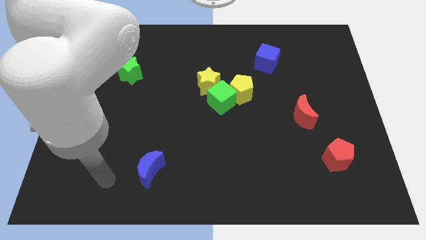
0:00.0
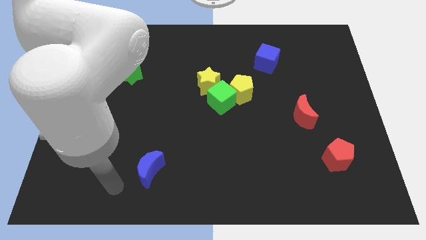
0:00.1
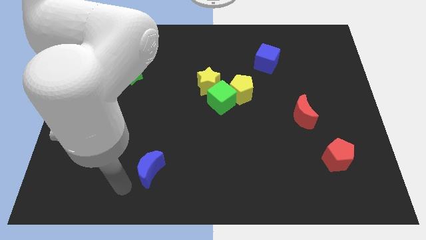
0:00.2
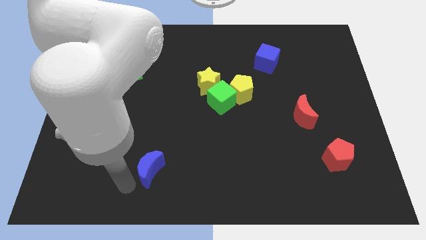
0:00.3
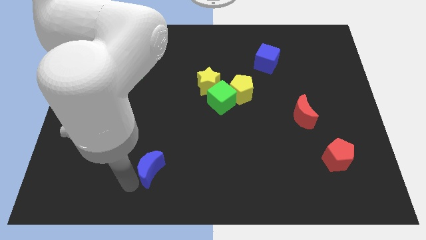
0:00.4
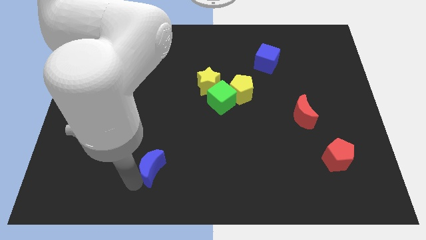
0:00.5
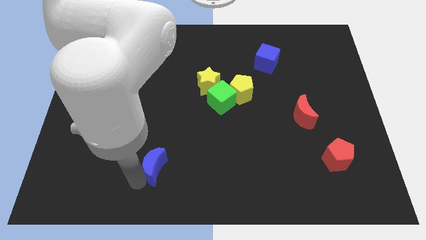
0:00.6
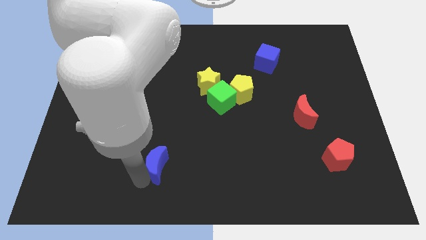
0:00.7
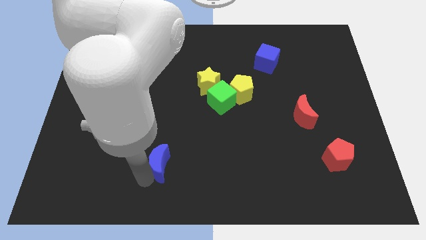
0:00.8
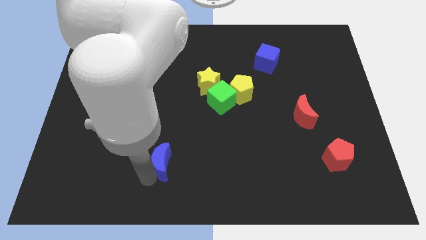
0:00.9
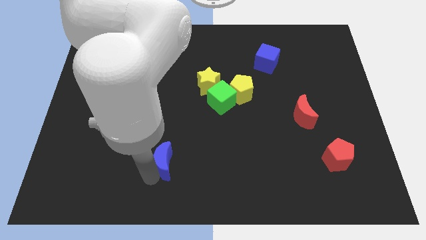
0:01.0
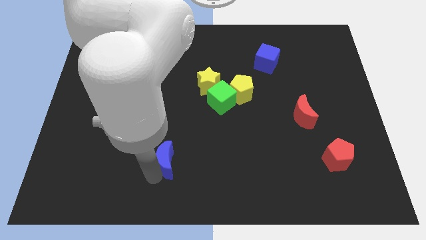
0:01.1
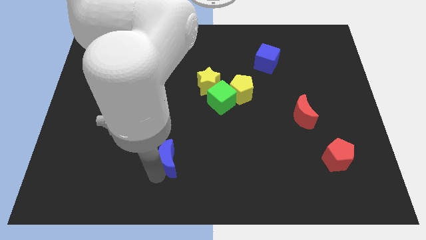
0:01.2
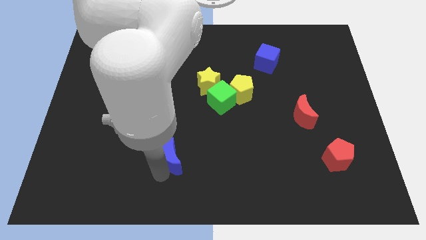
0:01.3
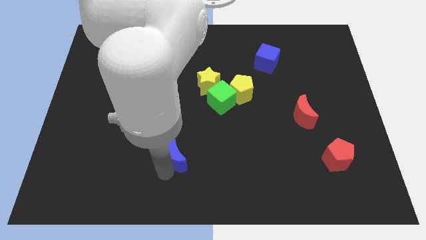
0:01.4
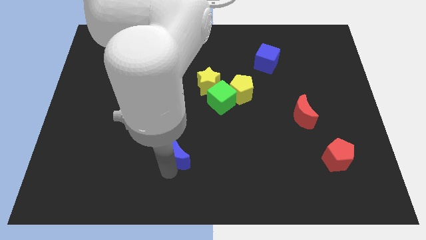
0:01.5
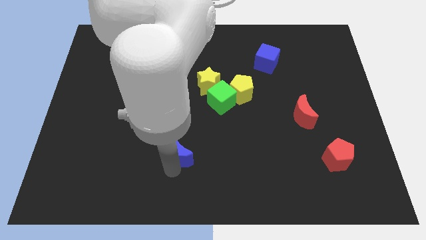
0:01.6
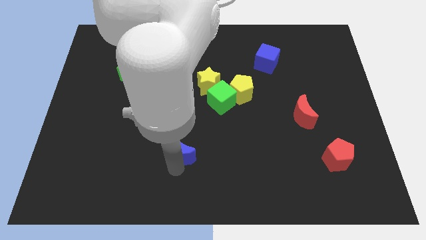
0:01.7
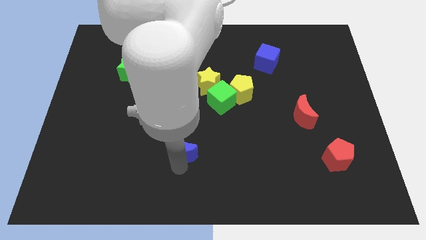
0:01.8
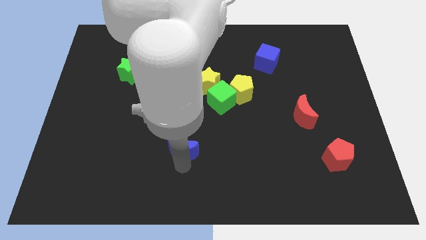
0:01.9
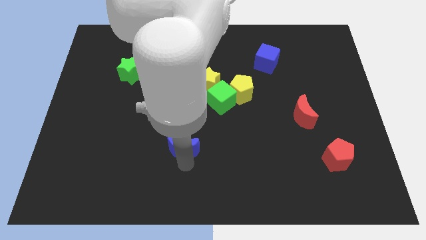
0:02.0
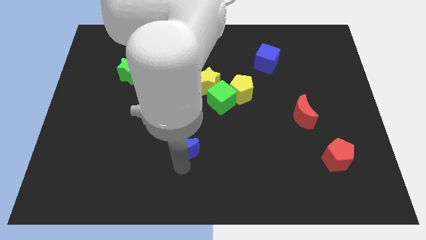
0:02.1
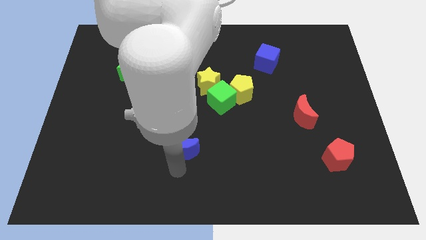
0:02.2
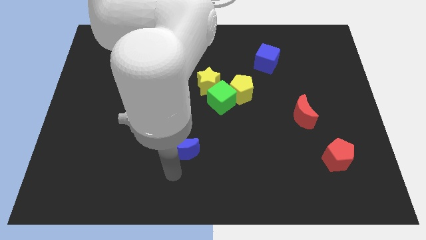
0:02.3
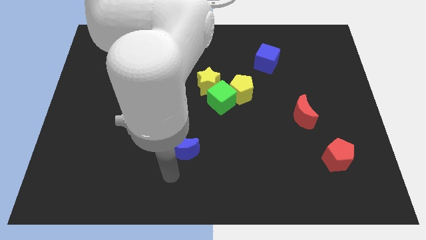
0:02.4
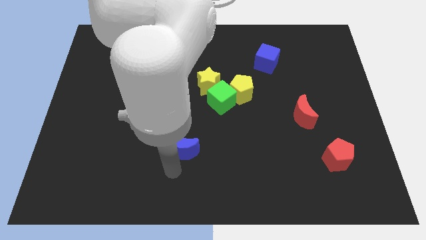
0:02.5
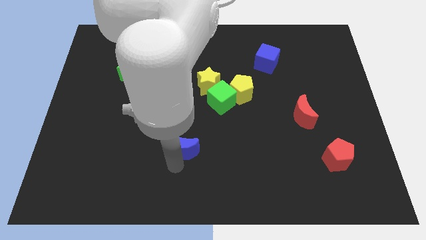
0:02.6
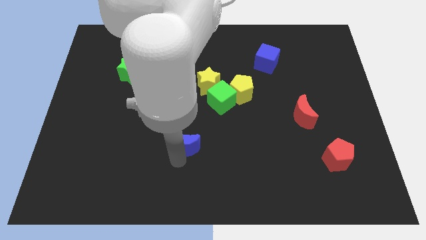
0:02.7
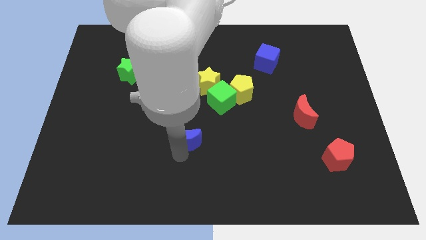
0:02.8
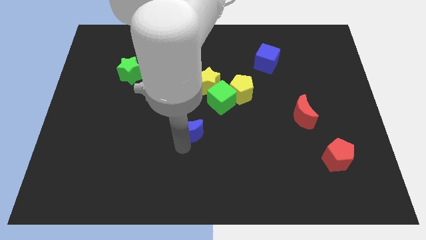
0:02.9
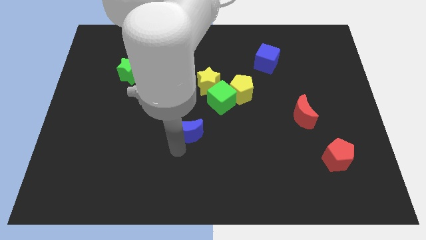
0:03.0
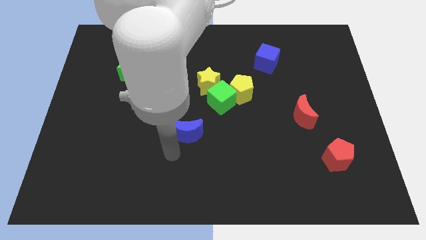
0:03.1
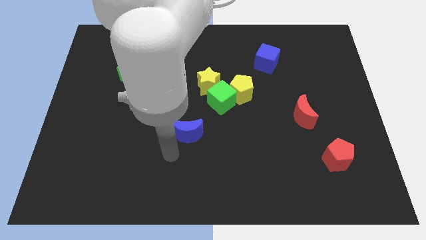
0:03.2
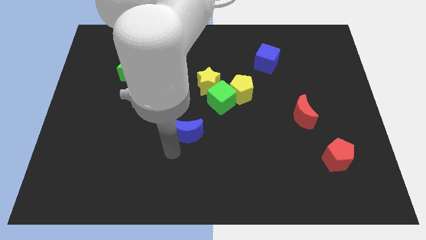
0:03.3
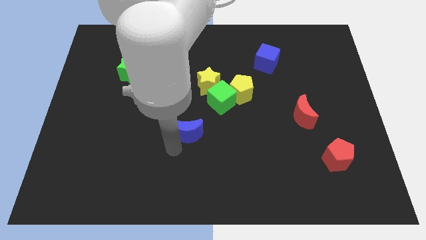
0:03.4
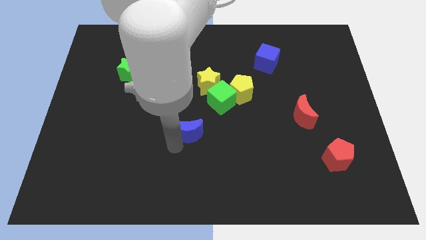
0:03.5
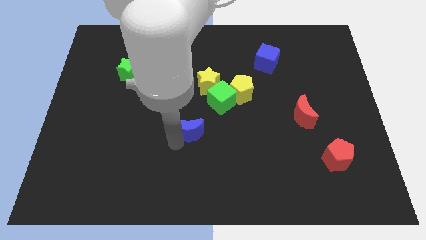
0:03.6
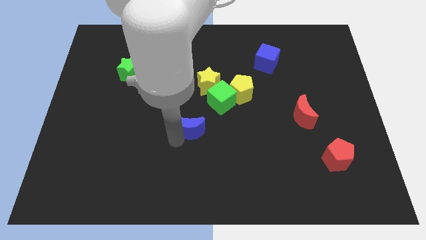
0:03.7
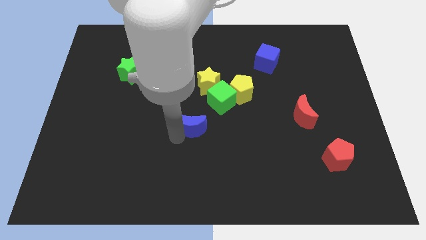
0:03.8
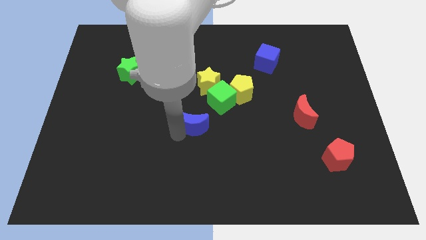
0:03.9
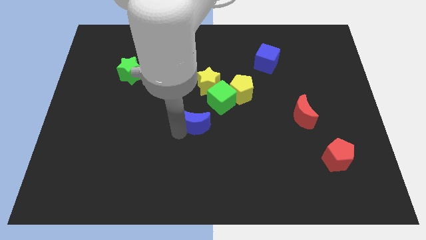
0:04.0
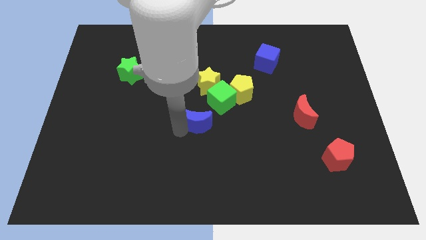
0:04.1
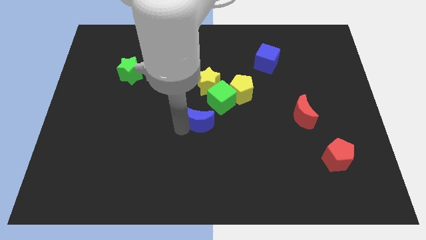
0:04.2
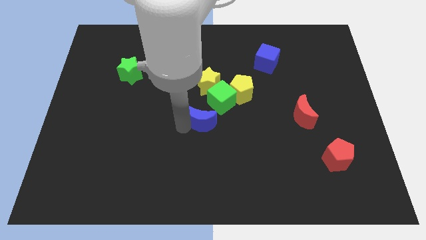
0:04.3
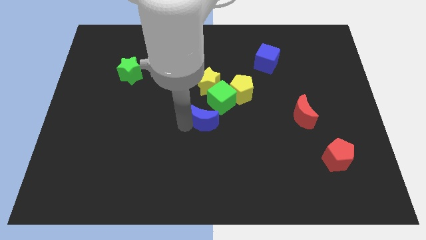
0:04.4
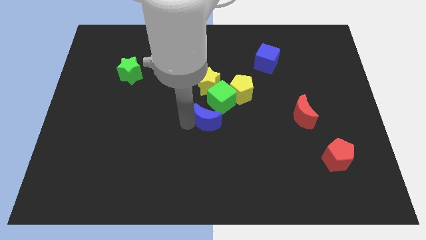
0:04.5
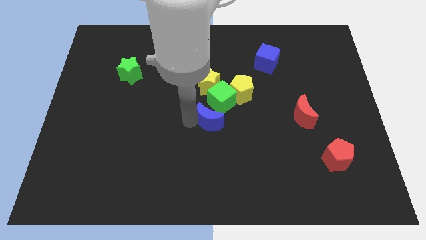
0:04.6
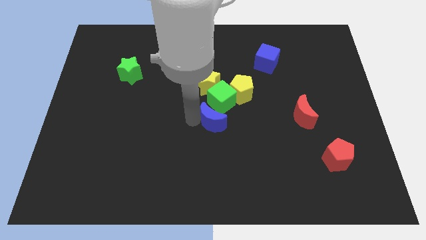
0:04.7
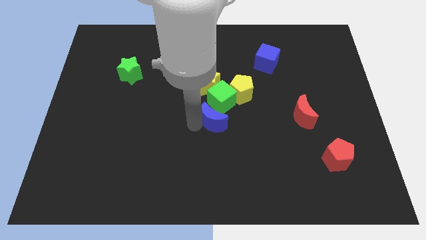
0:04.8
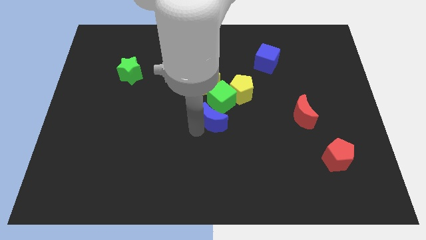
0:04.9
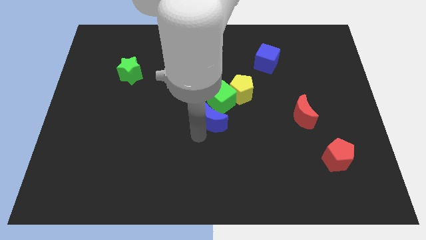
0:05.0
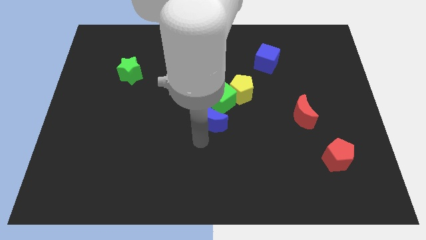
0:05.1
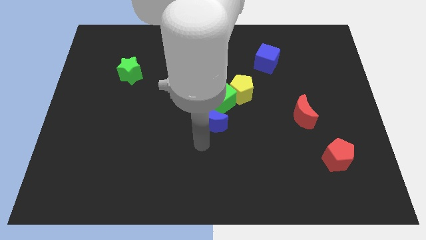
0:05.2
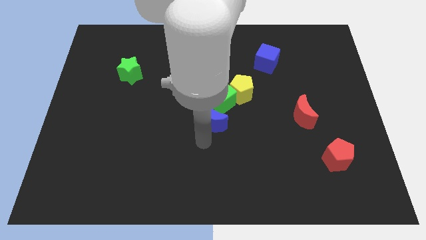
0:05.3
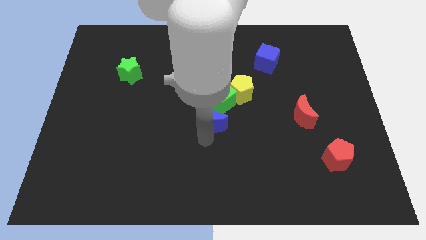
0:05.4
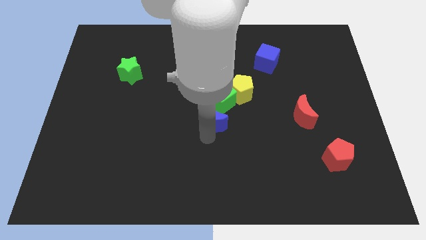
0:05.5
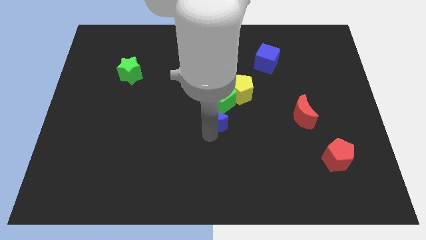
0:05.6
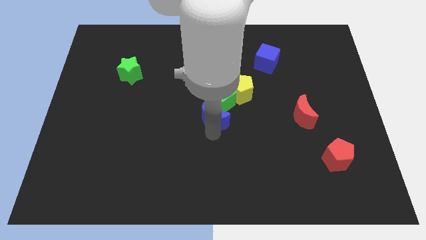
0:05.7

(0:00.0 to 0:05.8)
slide the blue moon to the green cube

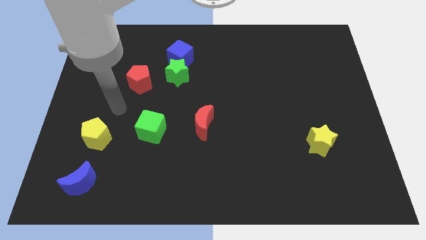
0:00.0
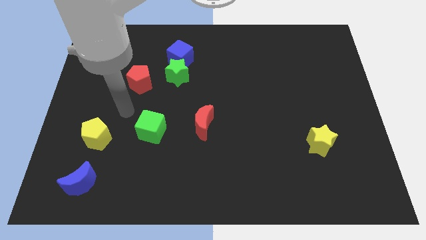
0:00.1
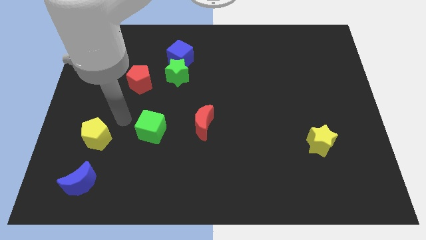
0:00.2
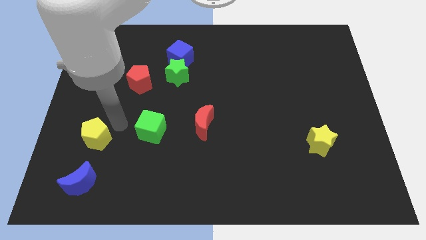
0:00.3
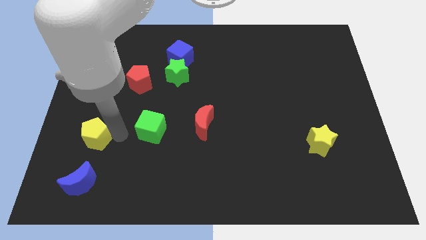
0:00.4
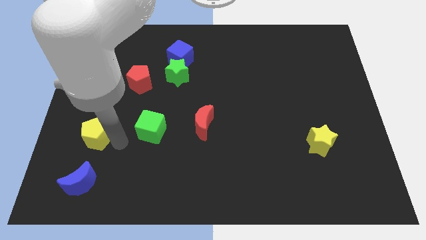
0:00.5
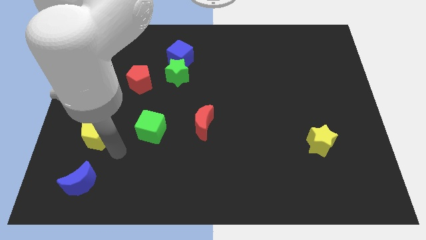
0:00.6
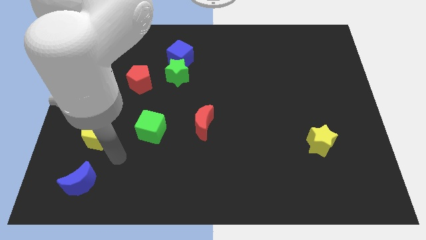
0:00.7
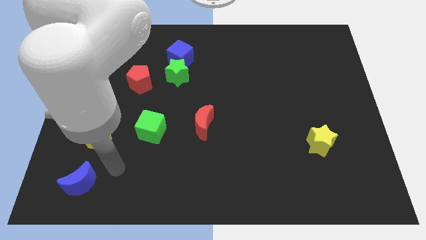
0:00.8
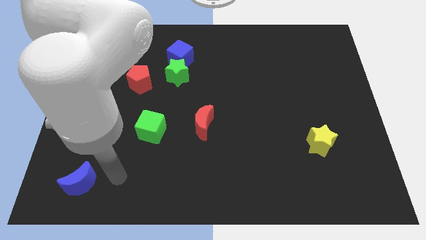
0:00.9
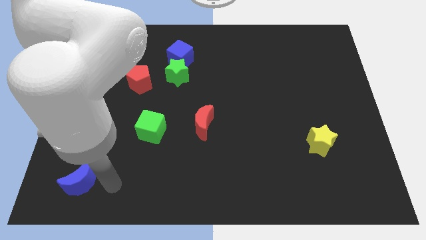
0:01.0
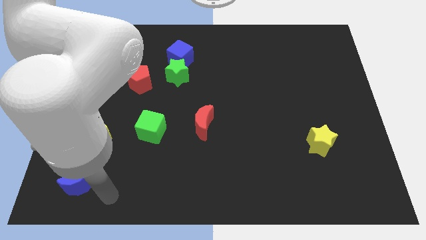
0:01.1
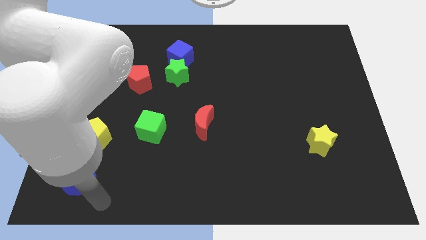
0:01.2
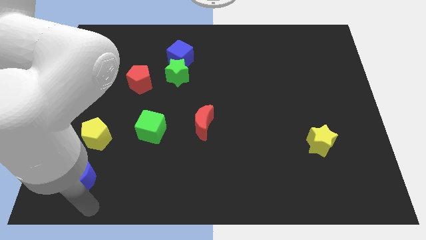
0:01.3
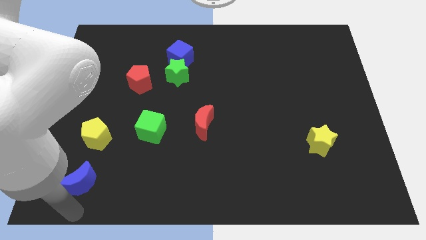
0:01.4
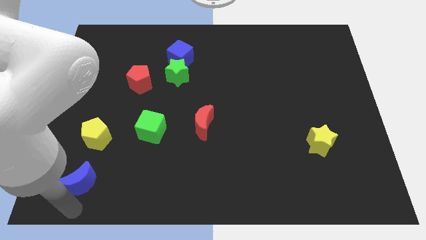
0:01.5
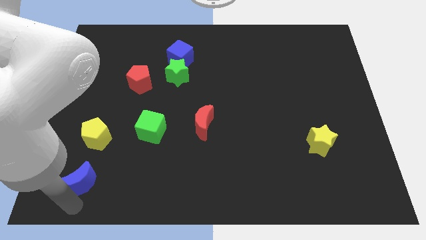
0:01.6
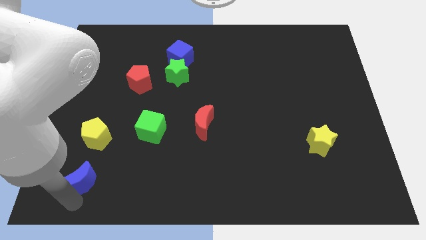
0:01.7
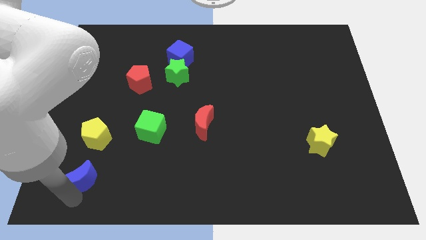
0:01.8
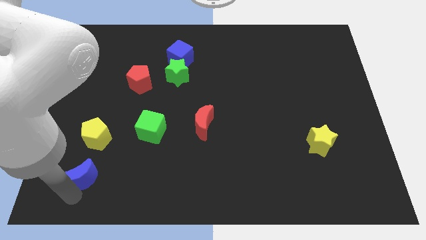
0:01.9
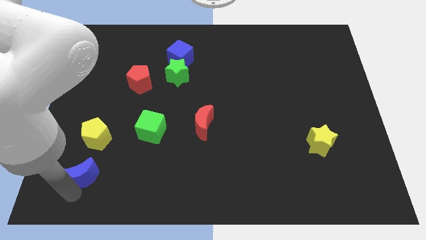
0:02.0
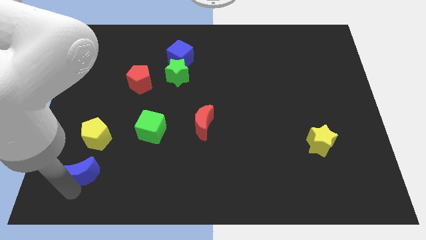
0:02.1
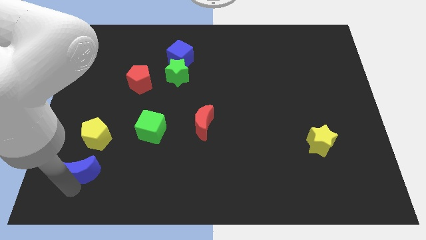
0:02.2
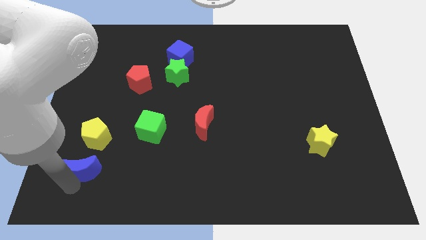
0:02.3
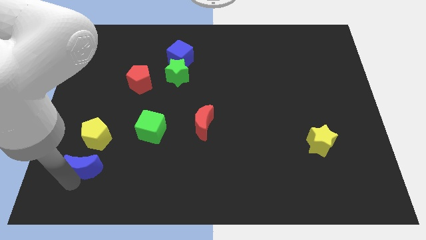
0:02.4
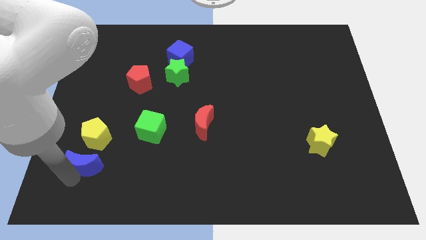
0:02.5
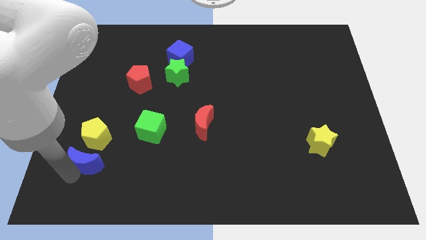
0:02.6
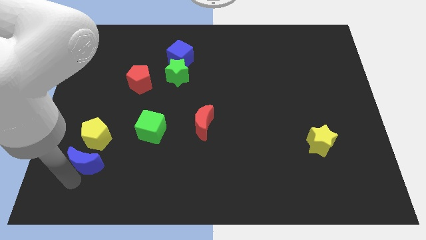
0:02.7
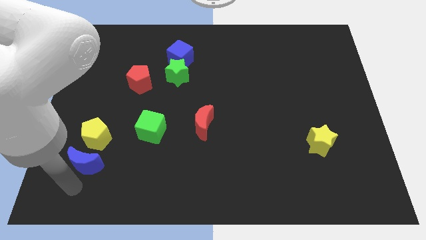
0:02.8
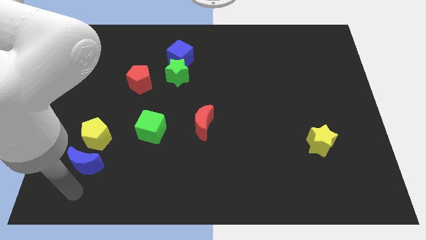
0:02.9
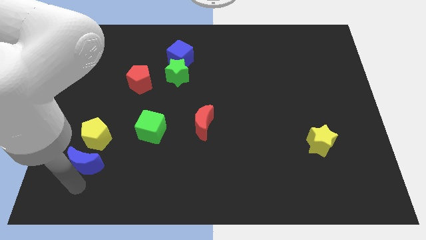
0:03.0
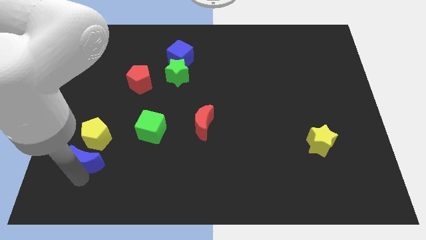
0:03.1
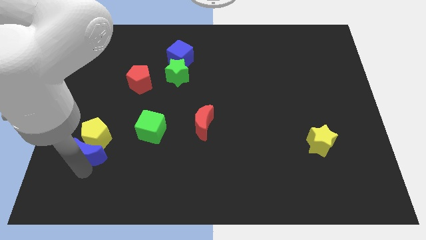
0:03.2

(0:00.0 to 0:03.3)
push the blue moon towards the yellow pentagon
